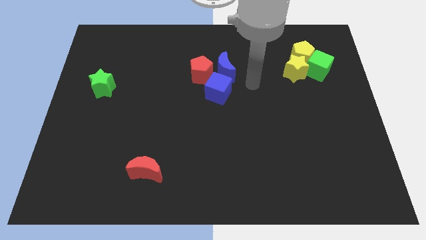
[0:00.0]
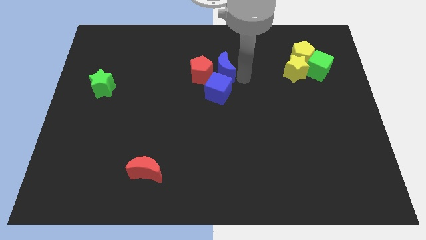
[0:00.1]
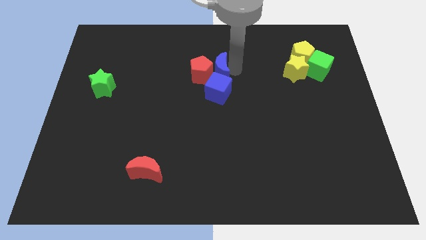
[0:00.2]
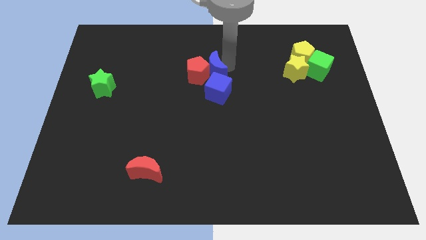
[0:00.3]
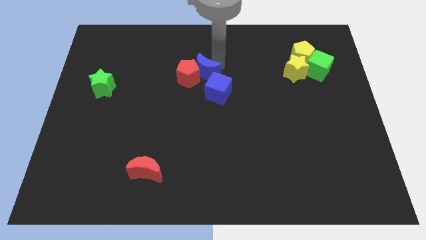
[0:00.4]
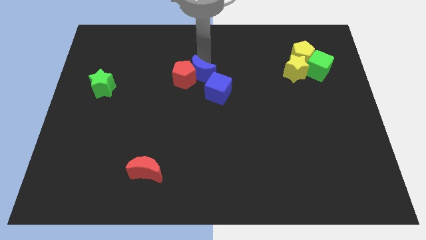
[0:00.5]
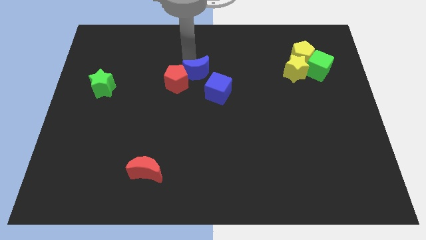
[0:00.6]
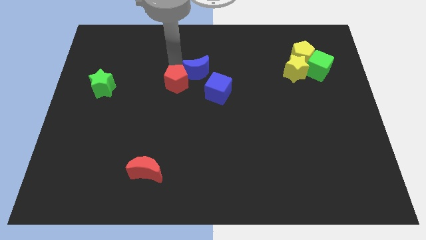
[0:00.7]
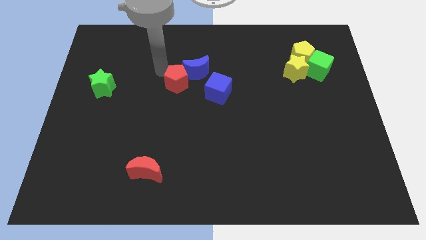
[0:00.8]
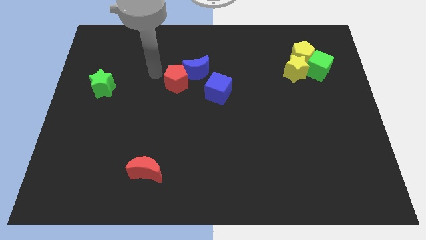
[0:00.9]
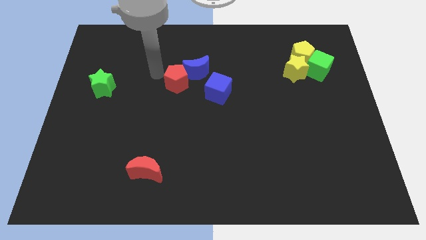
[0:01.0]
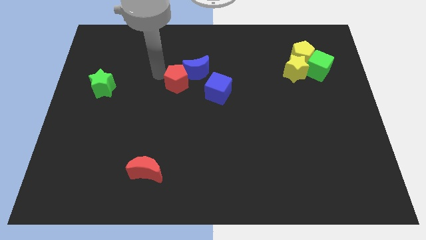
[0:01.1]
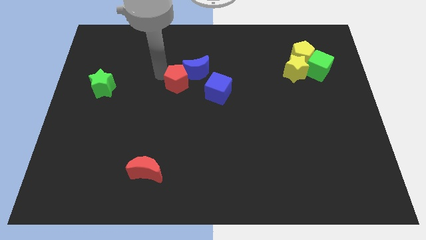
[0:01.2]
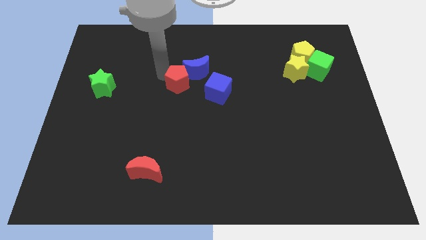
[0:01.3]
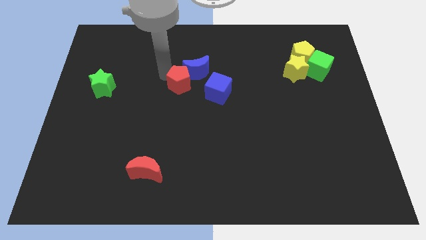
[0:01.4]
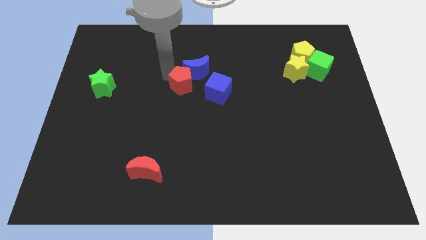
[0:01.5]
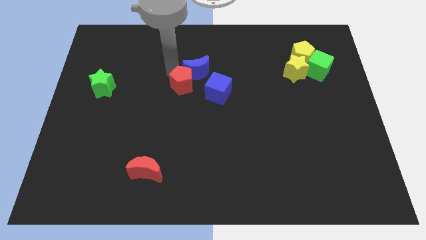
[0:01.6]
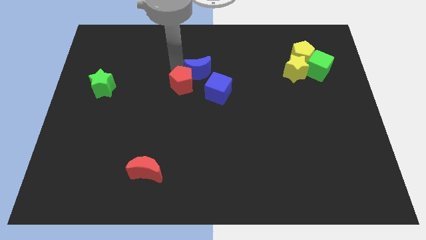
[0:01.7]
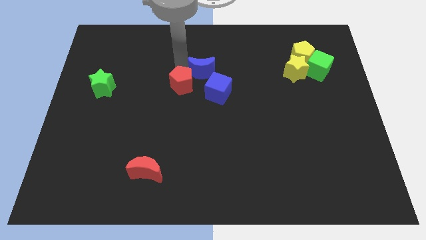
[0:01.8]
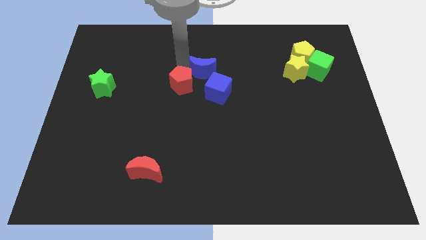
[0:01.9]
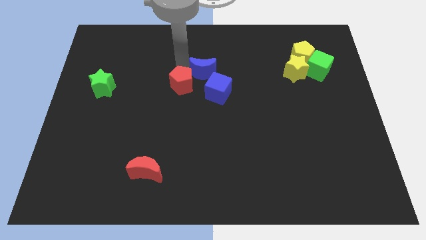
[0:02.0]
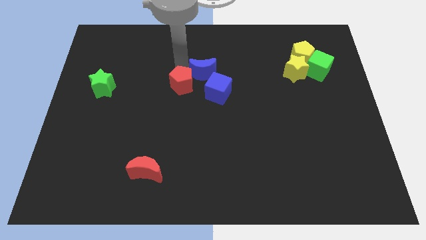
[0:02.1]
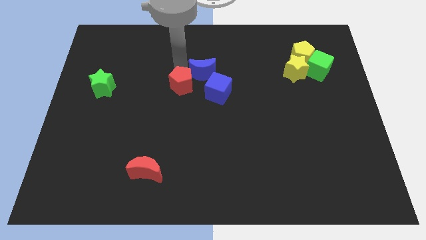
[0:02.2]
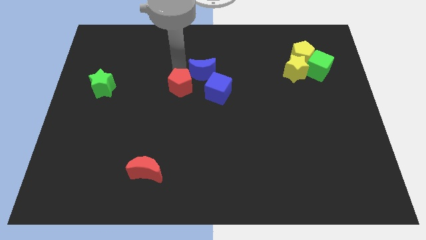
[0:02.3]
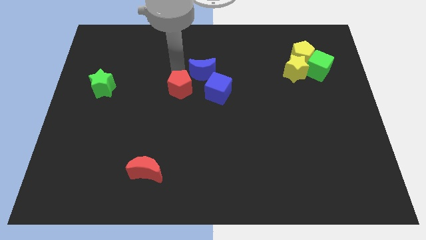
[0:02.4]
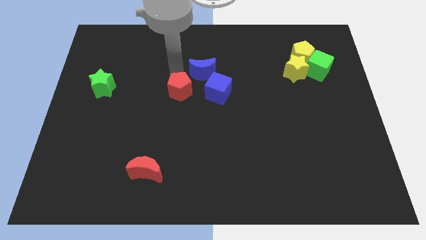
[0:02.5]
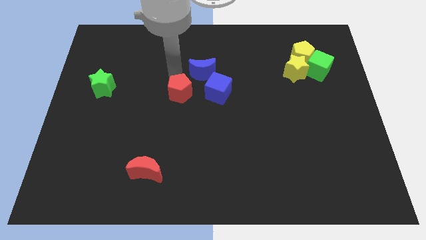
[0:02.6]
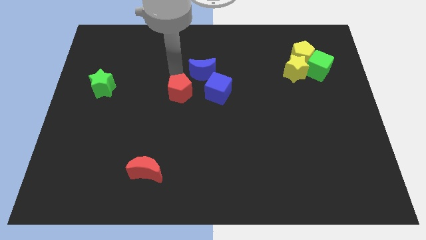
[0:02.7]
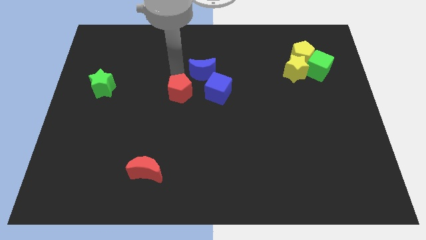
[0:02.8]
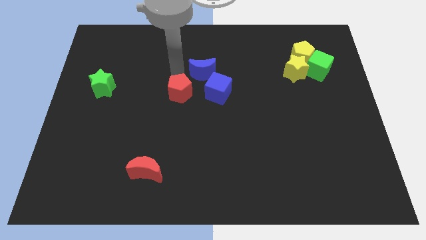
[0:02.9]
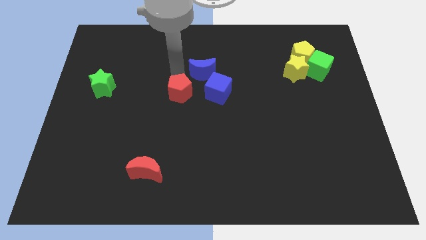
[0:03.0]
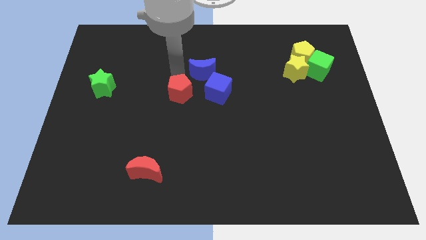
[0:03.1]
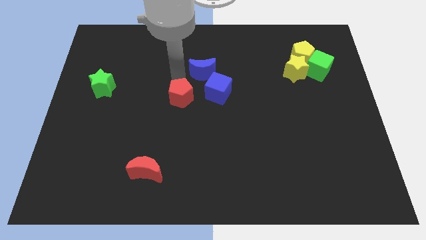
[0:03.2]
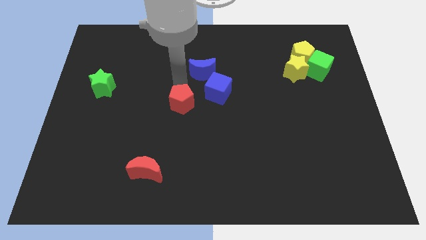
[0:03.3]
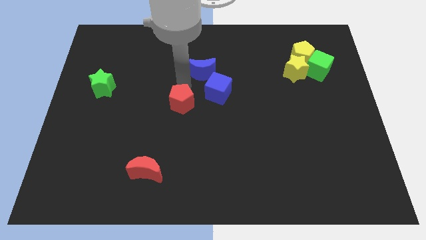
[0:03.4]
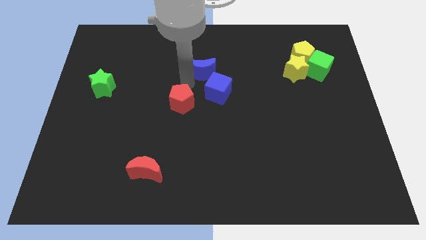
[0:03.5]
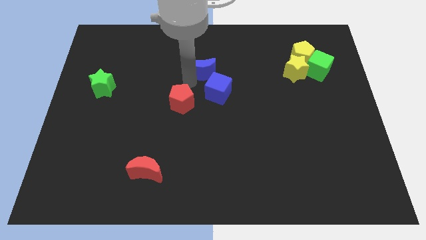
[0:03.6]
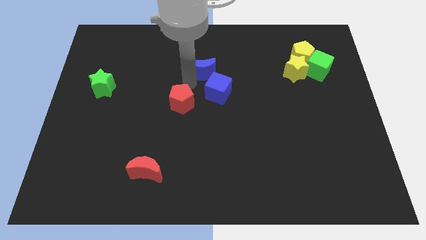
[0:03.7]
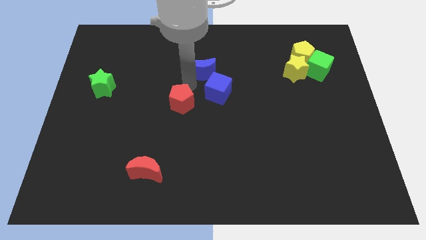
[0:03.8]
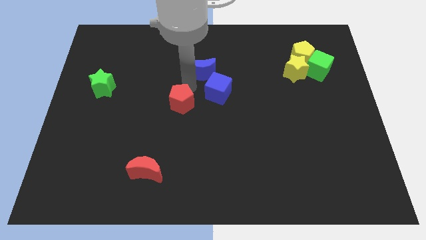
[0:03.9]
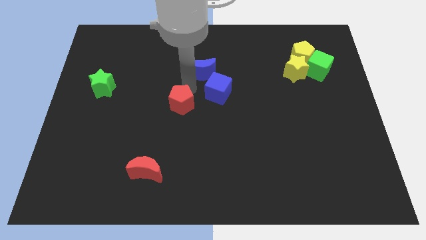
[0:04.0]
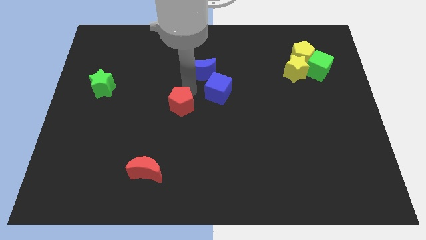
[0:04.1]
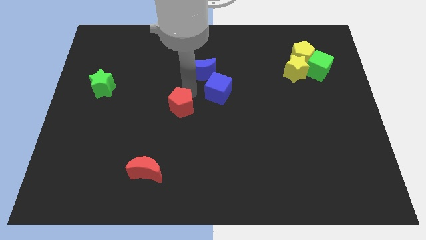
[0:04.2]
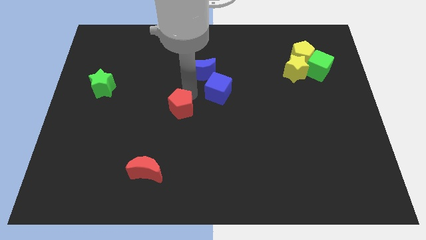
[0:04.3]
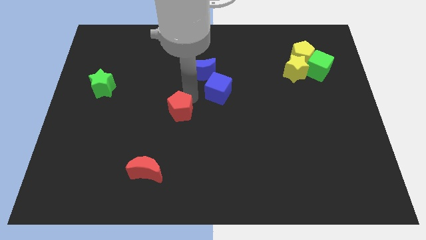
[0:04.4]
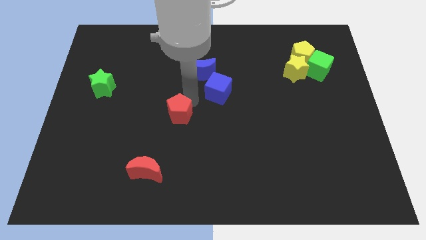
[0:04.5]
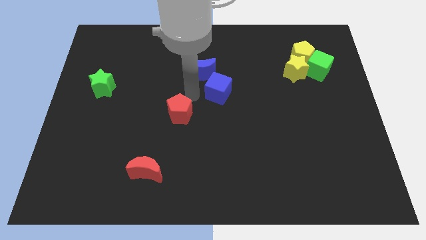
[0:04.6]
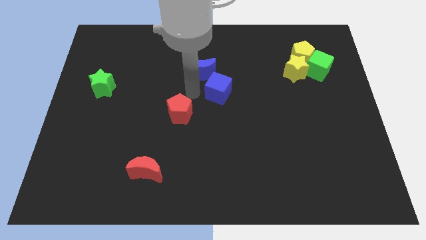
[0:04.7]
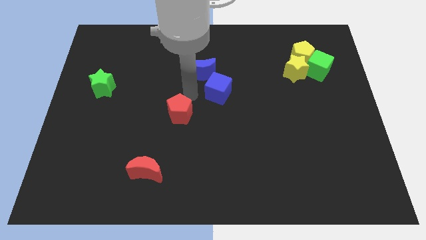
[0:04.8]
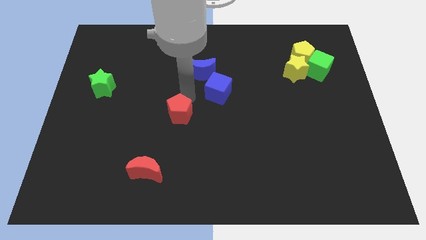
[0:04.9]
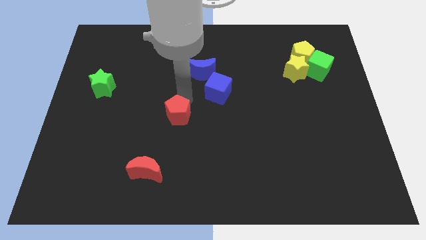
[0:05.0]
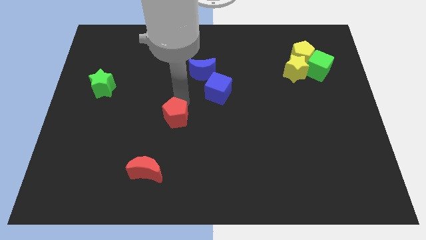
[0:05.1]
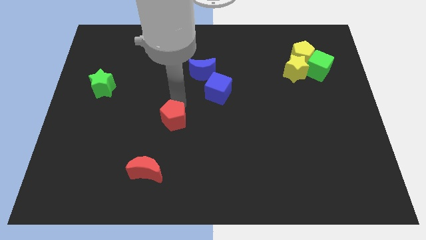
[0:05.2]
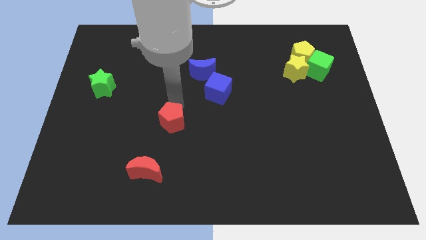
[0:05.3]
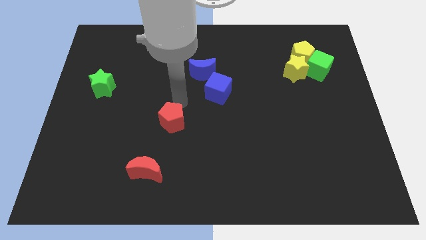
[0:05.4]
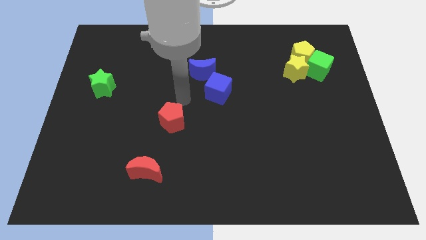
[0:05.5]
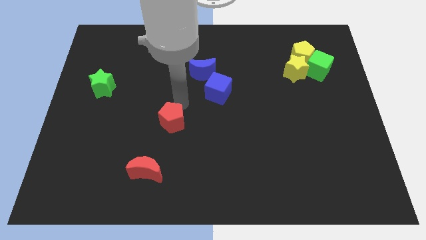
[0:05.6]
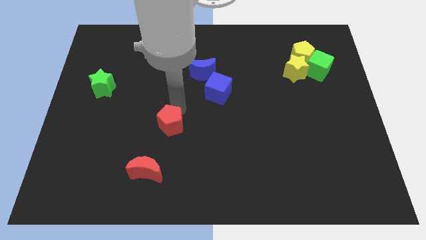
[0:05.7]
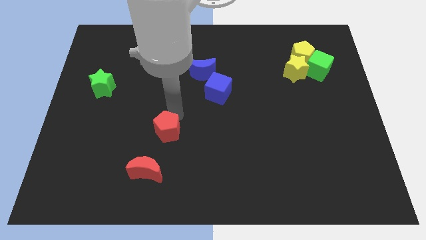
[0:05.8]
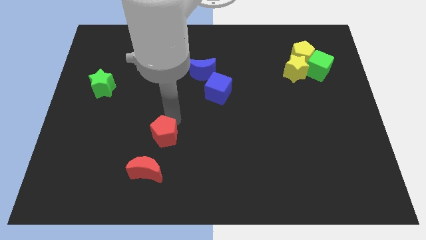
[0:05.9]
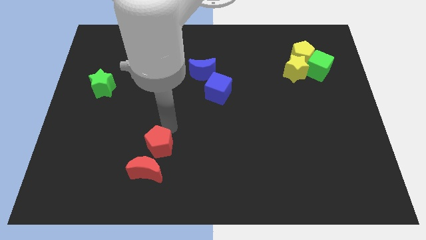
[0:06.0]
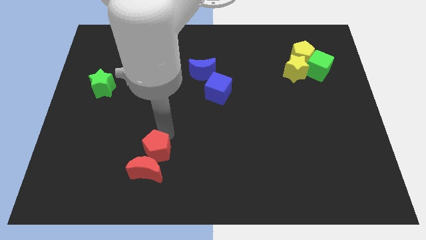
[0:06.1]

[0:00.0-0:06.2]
slide the red pentagon towards the red moon

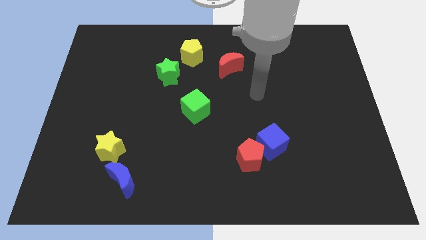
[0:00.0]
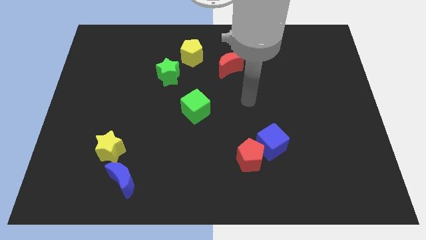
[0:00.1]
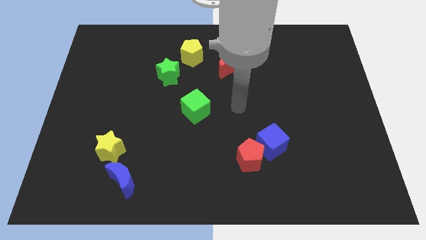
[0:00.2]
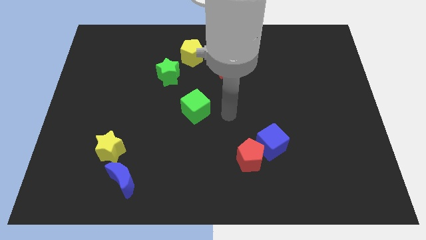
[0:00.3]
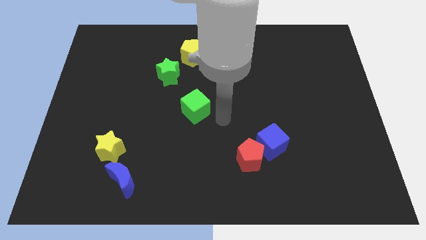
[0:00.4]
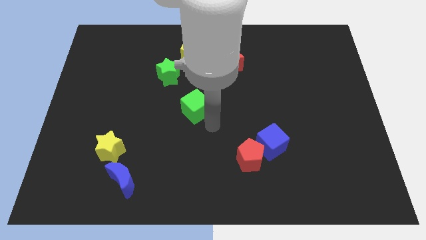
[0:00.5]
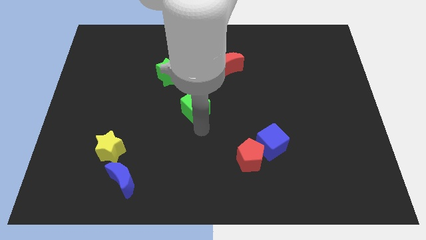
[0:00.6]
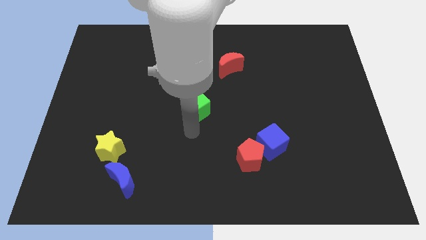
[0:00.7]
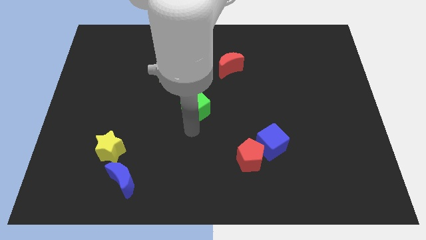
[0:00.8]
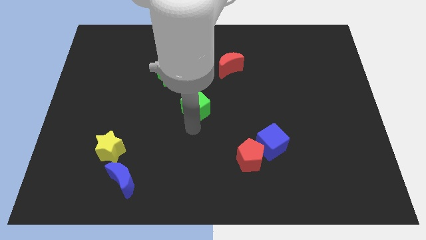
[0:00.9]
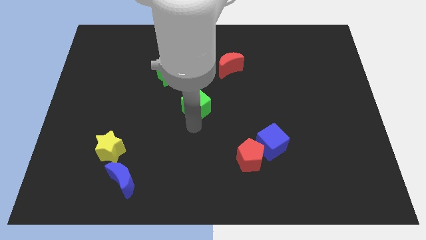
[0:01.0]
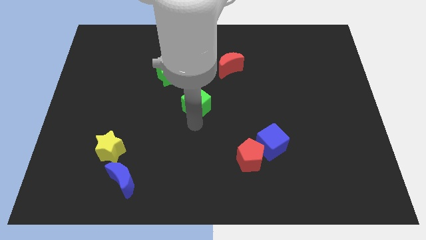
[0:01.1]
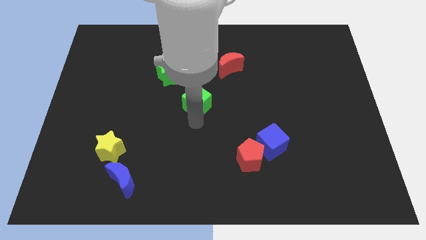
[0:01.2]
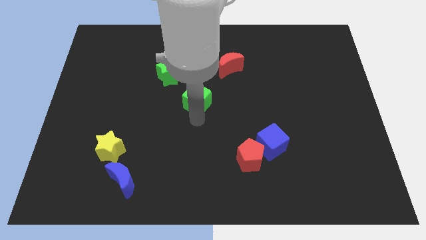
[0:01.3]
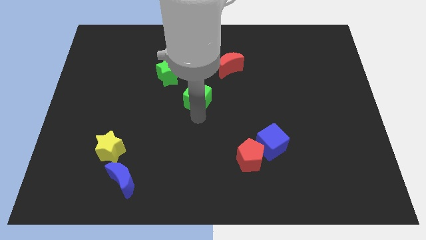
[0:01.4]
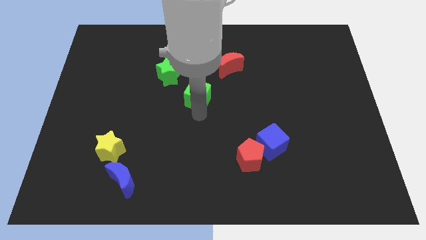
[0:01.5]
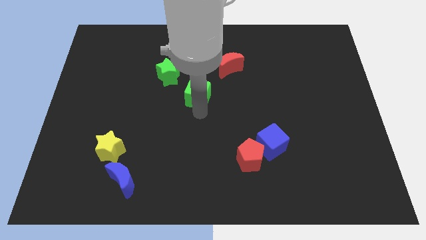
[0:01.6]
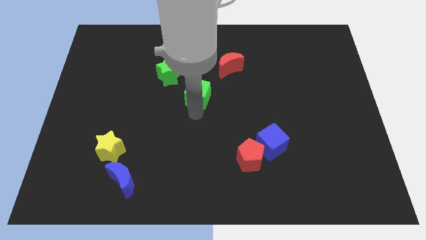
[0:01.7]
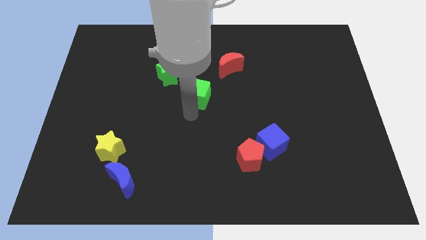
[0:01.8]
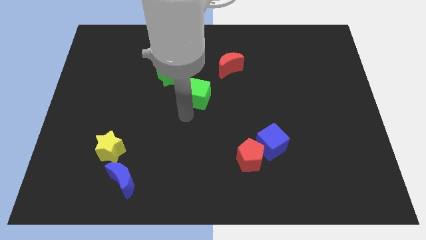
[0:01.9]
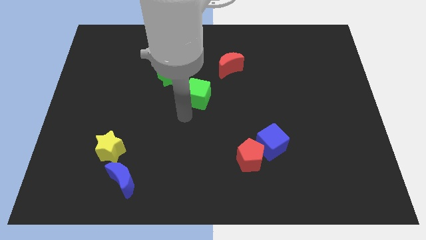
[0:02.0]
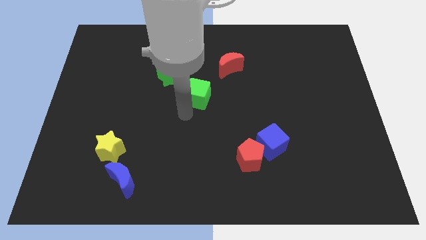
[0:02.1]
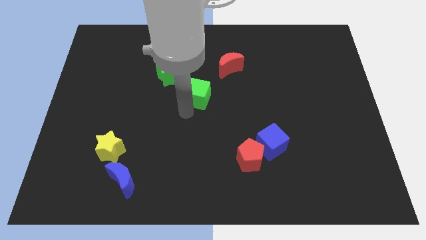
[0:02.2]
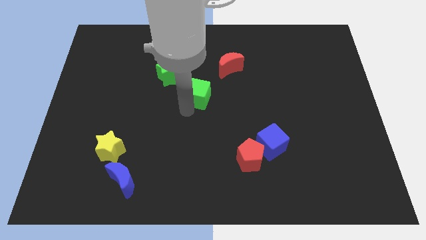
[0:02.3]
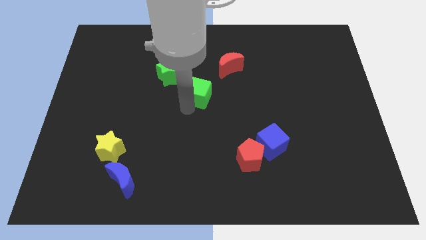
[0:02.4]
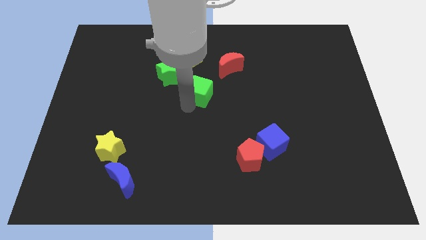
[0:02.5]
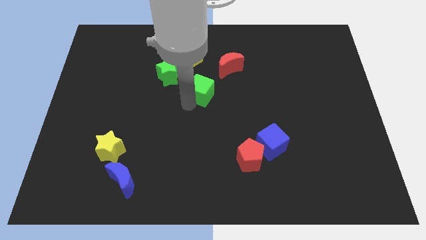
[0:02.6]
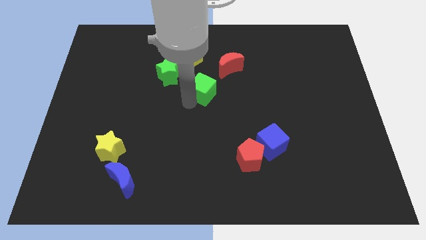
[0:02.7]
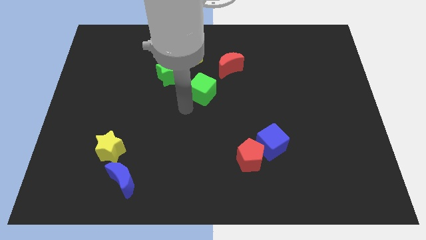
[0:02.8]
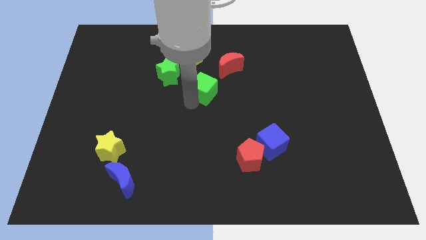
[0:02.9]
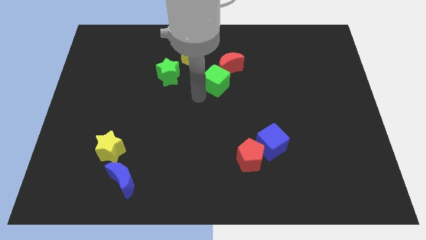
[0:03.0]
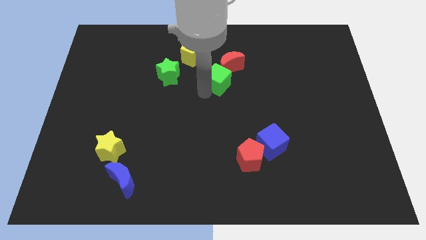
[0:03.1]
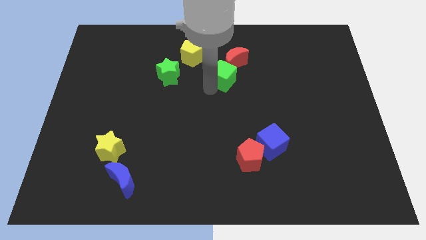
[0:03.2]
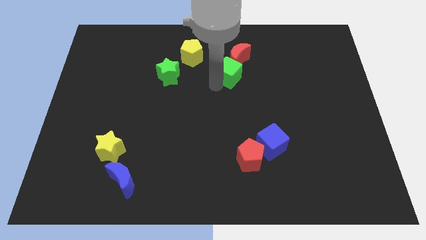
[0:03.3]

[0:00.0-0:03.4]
move the green cube towards the red moon
